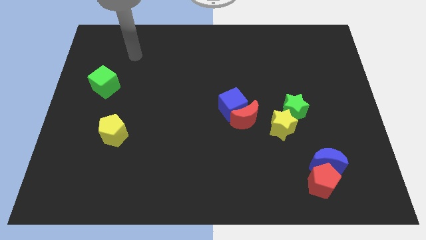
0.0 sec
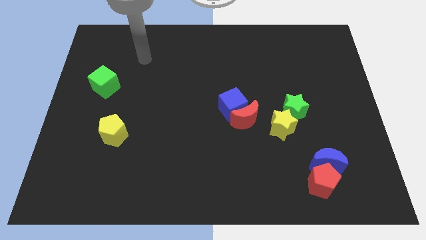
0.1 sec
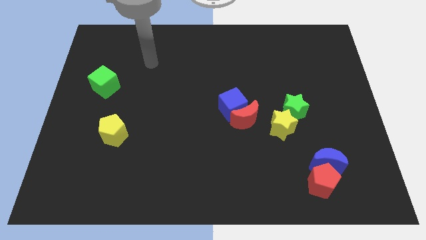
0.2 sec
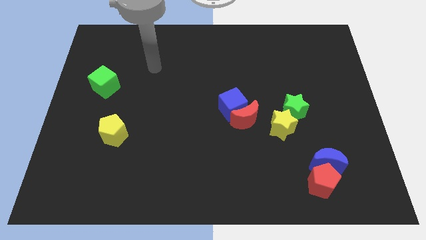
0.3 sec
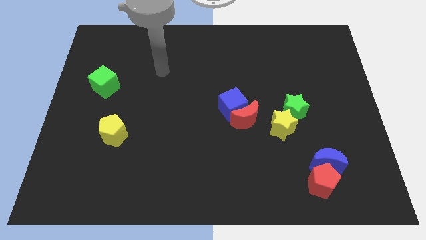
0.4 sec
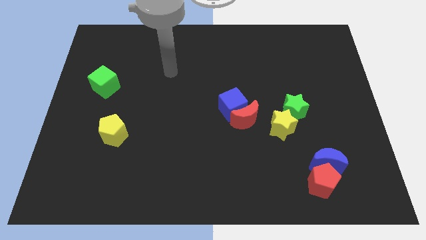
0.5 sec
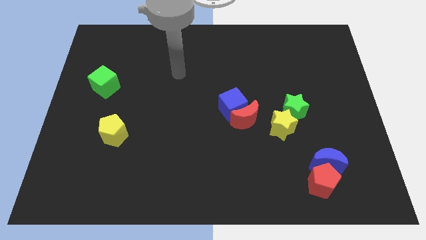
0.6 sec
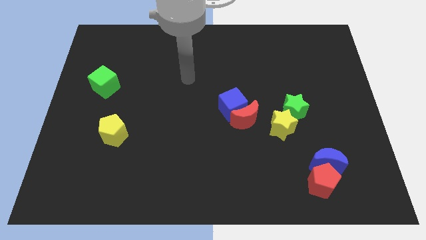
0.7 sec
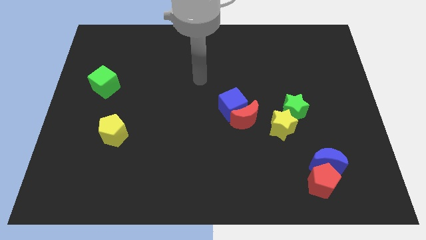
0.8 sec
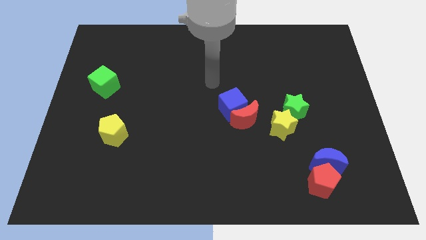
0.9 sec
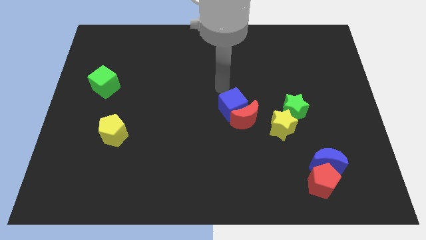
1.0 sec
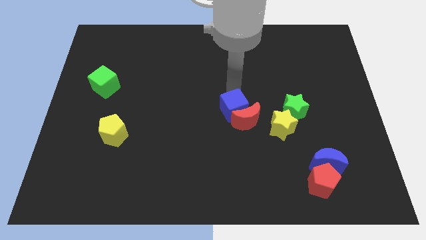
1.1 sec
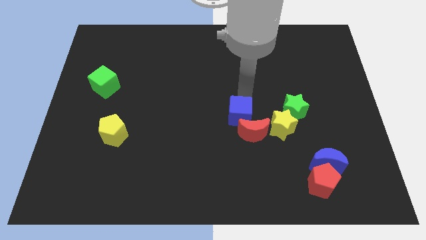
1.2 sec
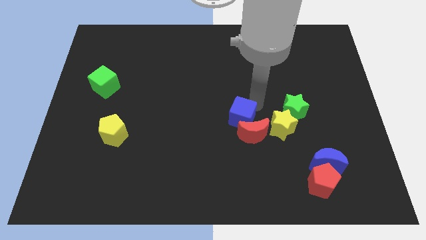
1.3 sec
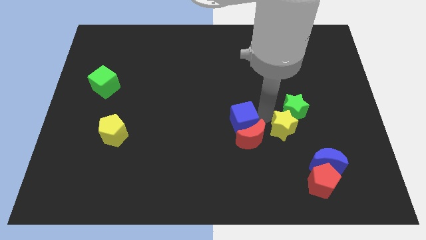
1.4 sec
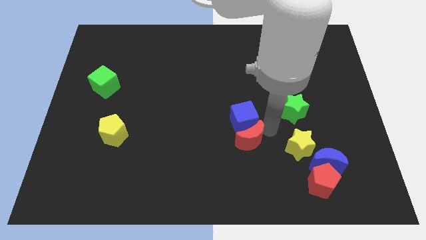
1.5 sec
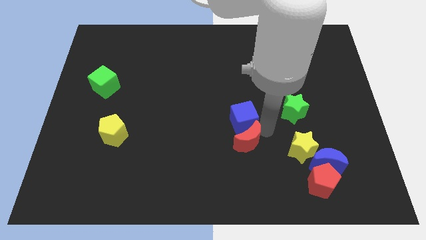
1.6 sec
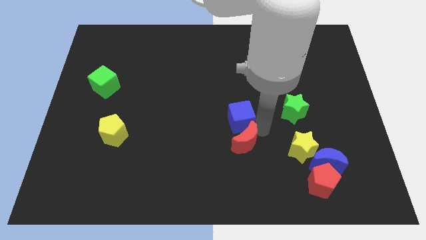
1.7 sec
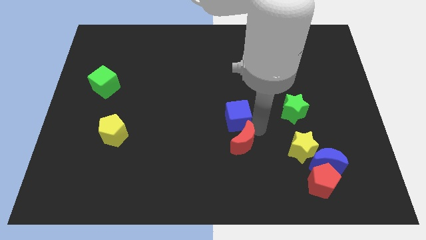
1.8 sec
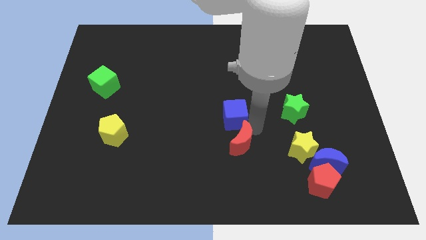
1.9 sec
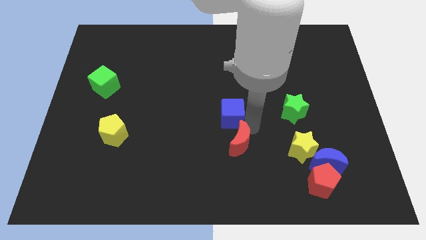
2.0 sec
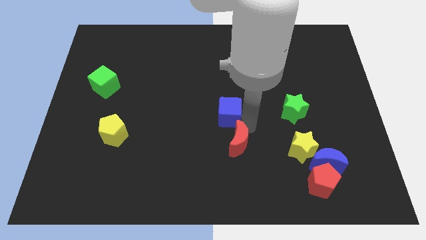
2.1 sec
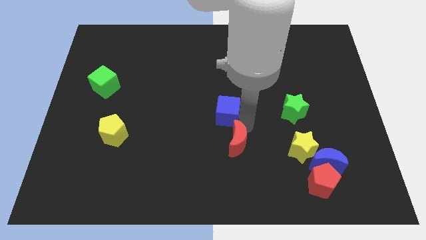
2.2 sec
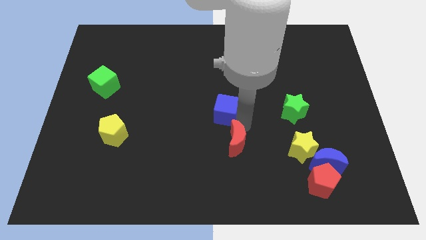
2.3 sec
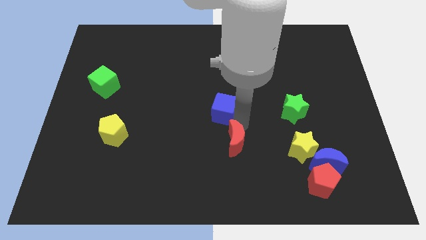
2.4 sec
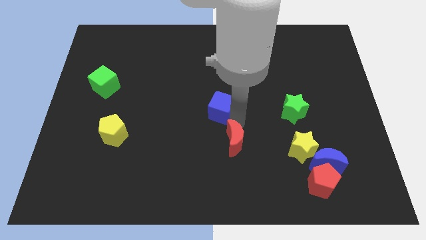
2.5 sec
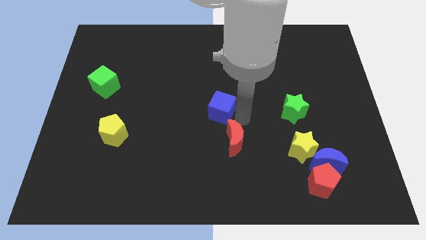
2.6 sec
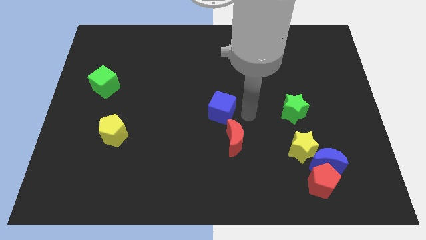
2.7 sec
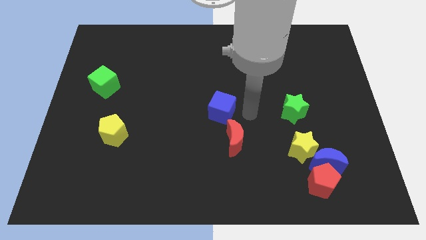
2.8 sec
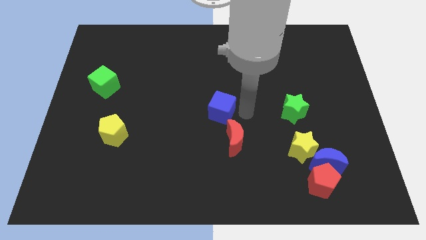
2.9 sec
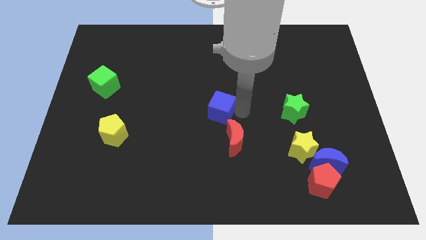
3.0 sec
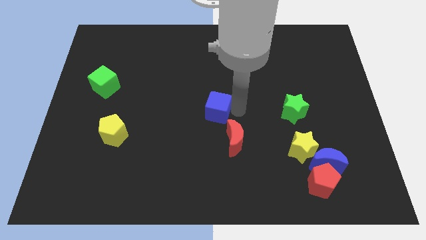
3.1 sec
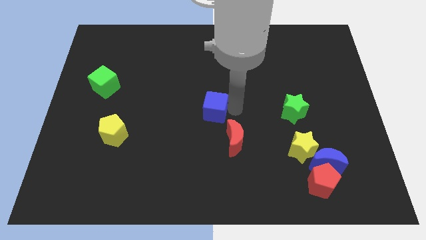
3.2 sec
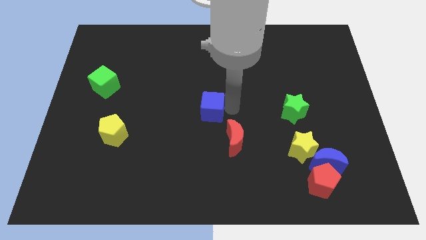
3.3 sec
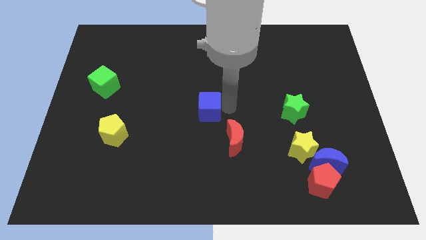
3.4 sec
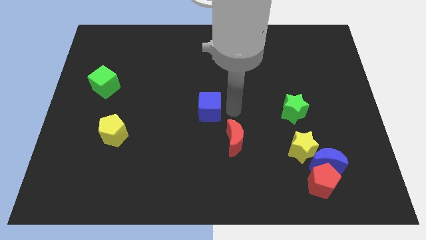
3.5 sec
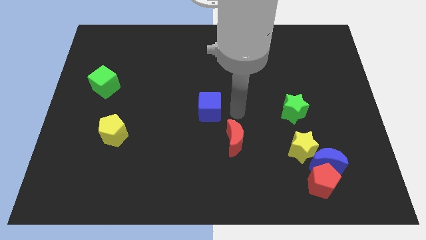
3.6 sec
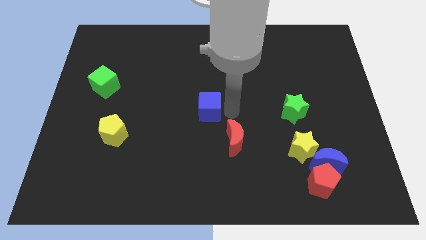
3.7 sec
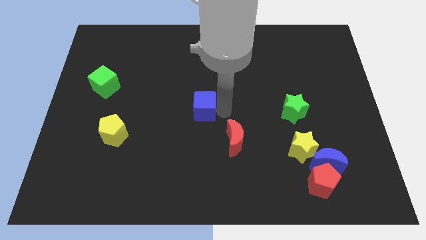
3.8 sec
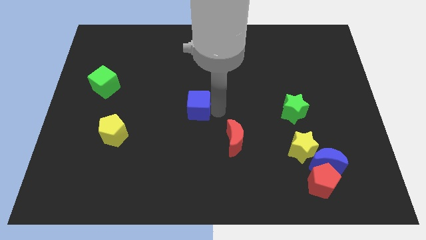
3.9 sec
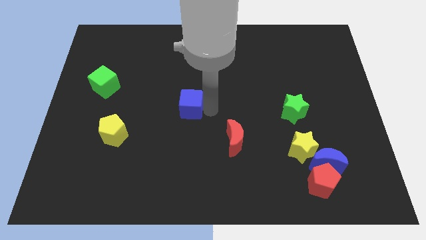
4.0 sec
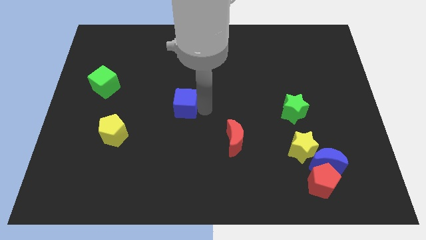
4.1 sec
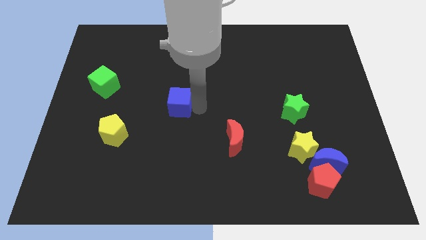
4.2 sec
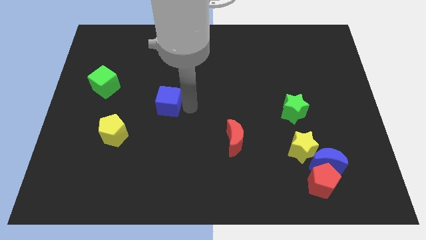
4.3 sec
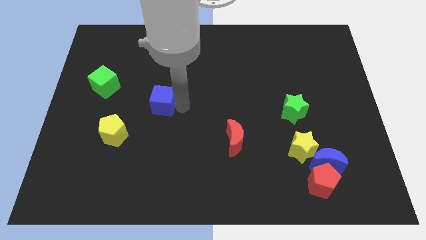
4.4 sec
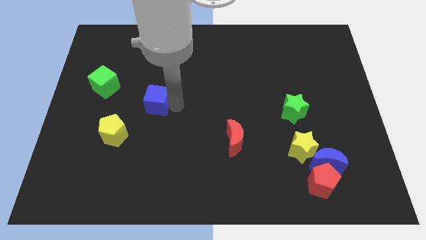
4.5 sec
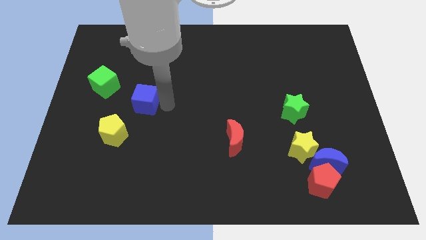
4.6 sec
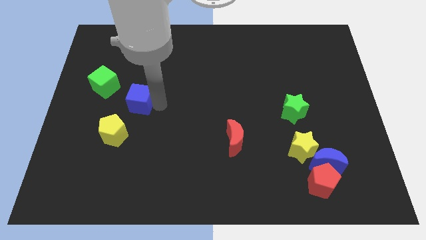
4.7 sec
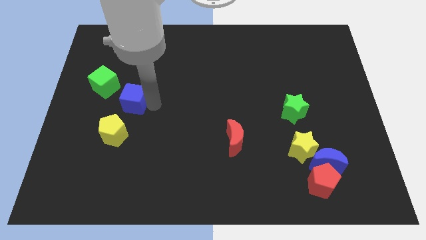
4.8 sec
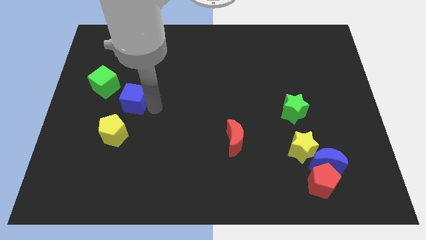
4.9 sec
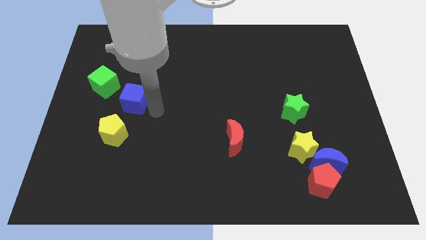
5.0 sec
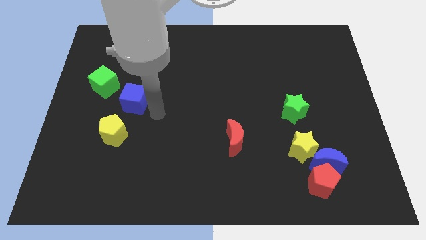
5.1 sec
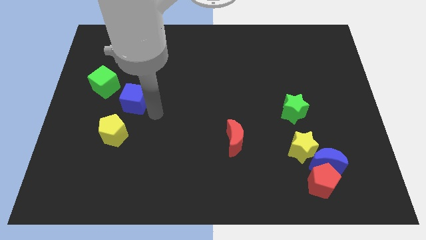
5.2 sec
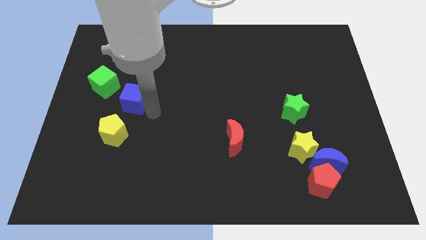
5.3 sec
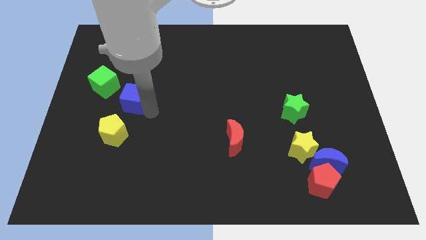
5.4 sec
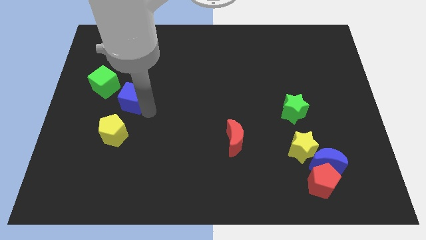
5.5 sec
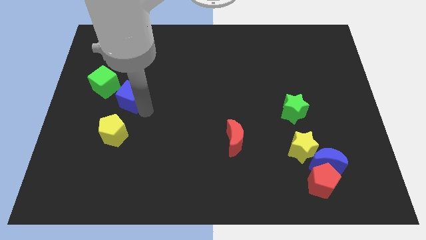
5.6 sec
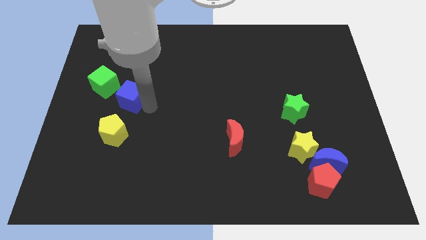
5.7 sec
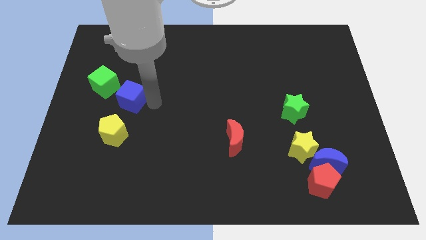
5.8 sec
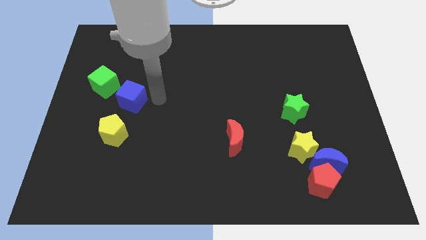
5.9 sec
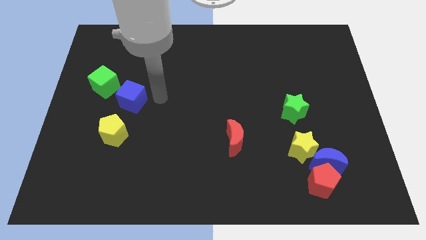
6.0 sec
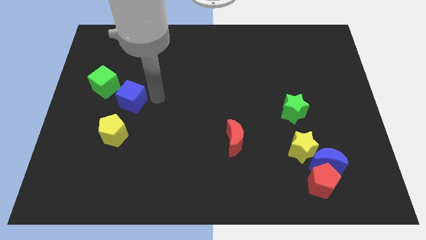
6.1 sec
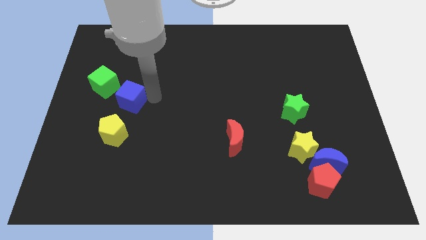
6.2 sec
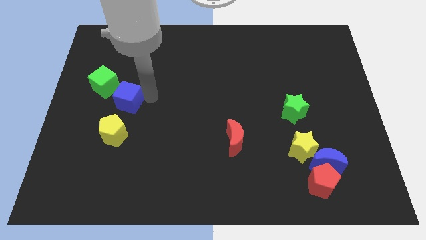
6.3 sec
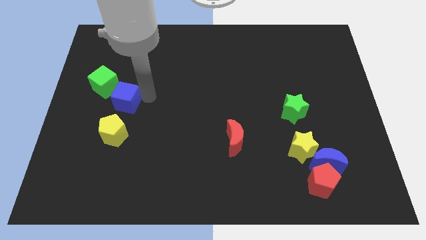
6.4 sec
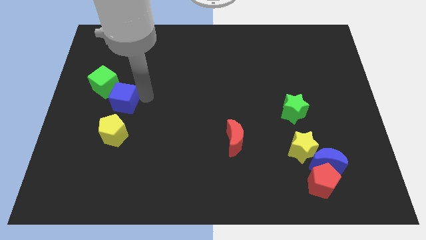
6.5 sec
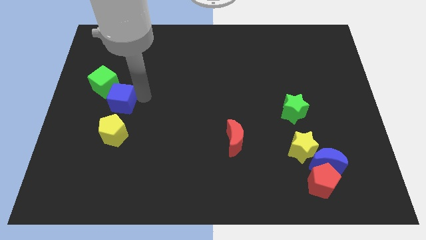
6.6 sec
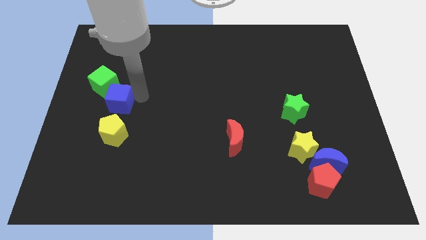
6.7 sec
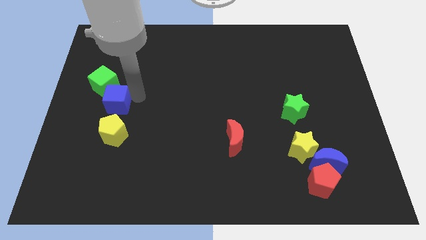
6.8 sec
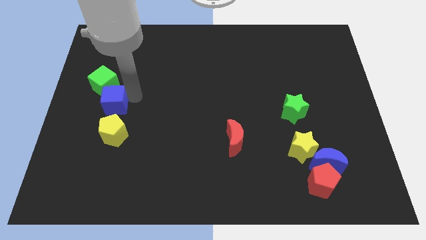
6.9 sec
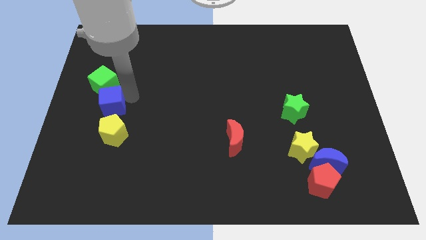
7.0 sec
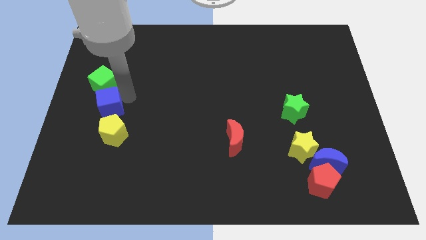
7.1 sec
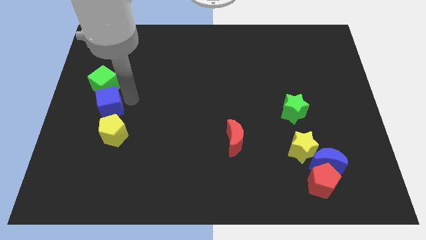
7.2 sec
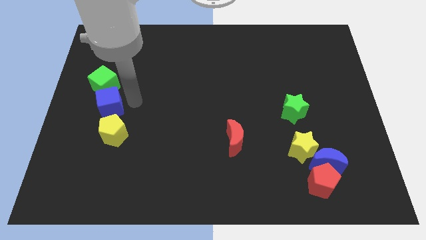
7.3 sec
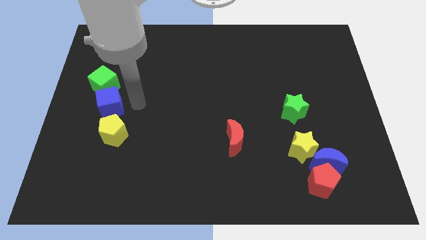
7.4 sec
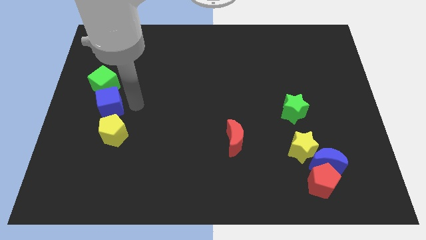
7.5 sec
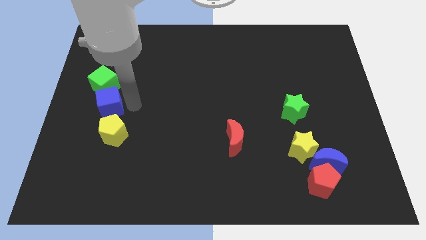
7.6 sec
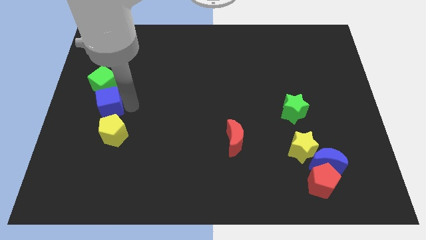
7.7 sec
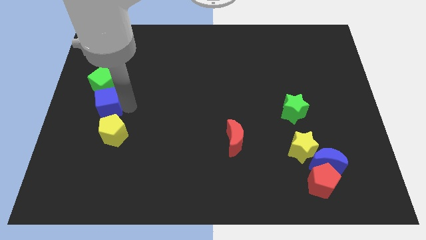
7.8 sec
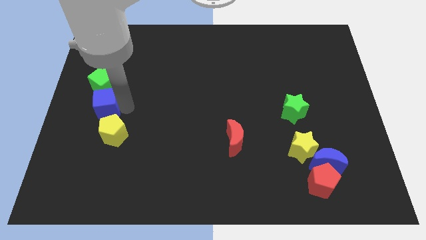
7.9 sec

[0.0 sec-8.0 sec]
slide the blue cube to the left side of the board
